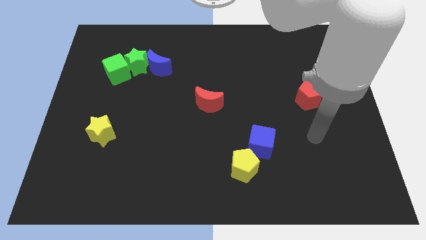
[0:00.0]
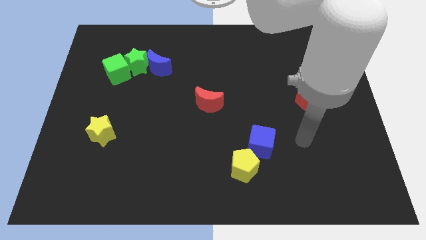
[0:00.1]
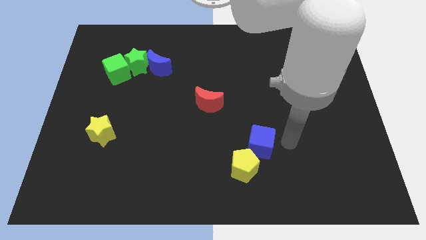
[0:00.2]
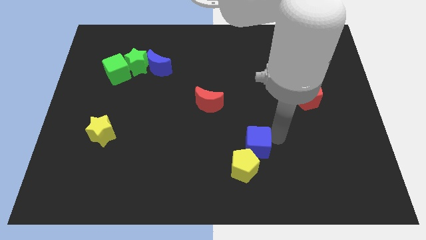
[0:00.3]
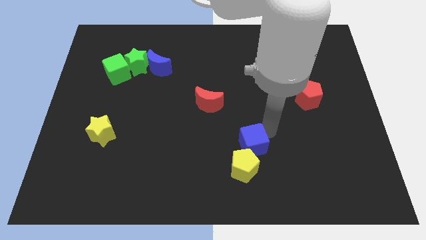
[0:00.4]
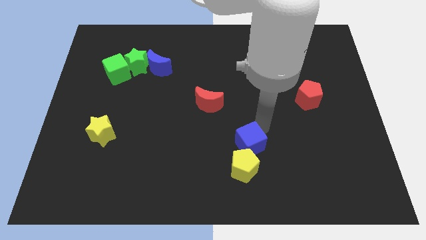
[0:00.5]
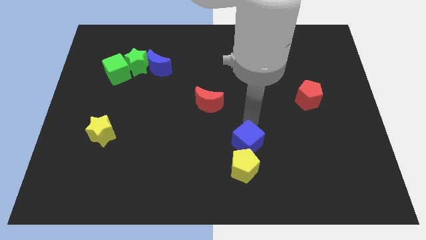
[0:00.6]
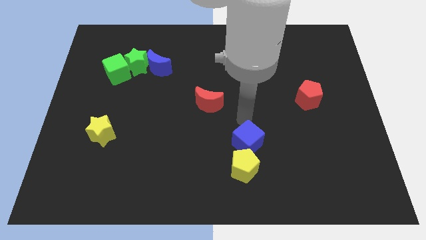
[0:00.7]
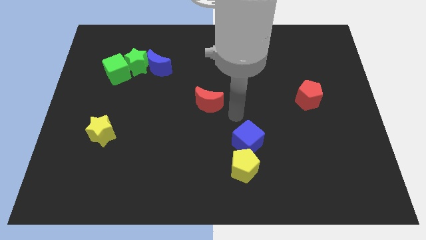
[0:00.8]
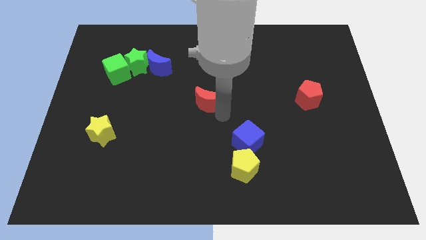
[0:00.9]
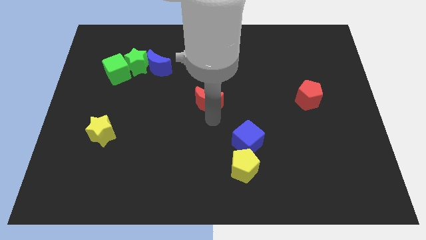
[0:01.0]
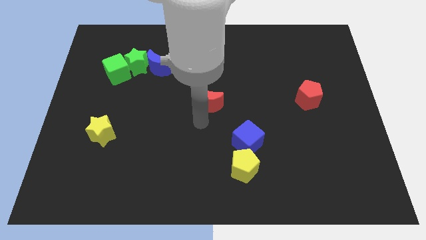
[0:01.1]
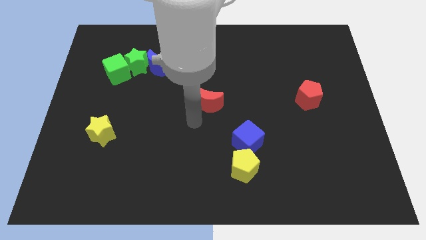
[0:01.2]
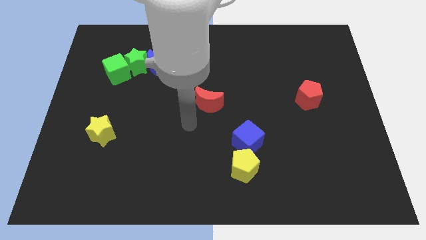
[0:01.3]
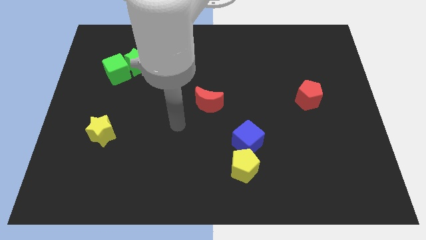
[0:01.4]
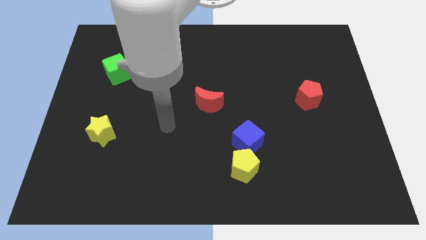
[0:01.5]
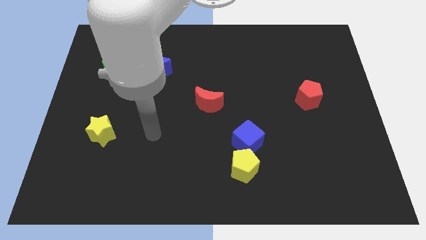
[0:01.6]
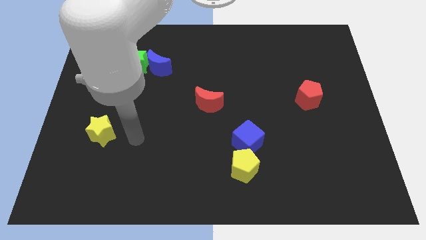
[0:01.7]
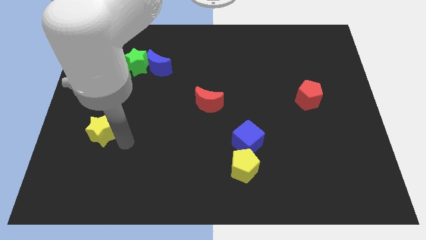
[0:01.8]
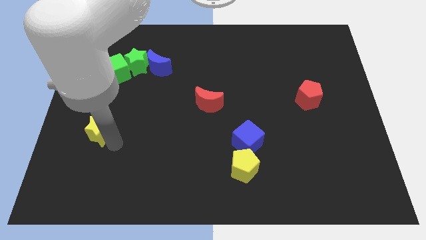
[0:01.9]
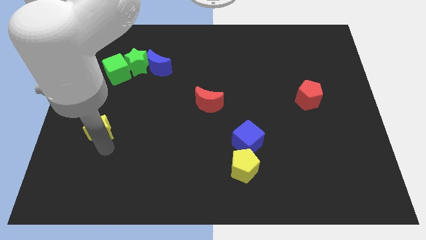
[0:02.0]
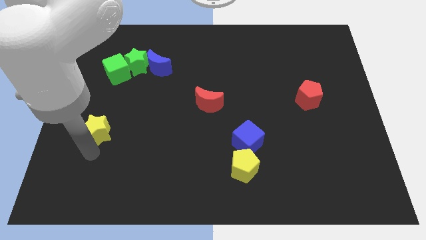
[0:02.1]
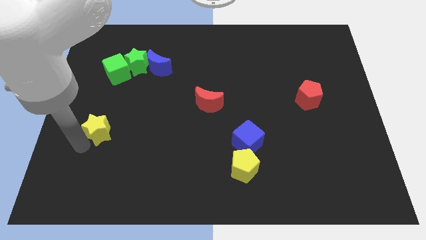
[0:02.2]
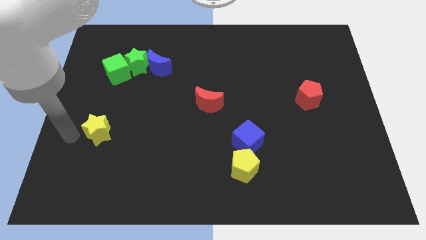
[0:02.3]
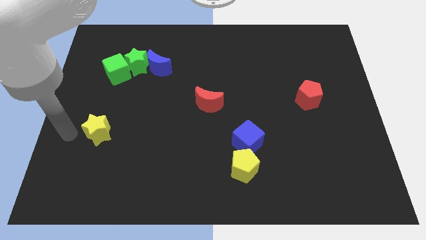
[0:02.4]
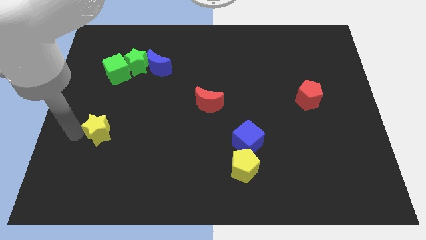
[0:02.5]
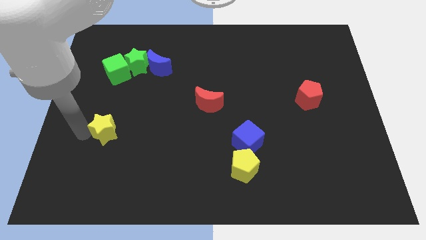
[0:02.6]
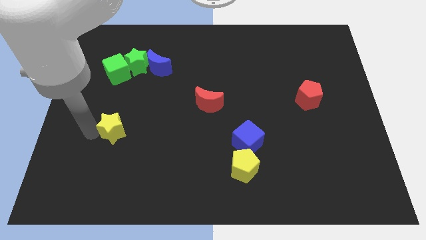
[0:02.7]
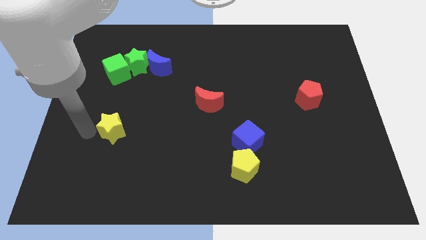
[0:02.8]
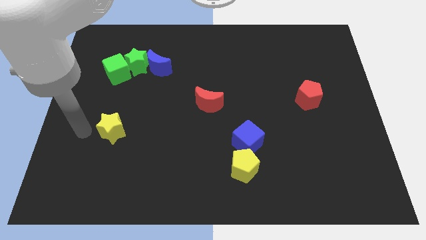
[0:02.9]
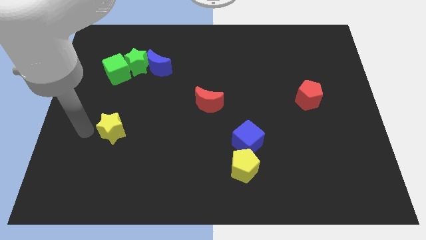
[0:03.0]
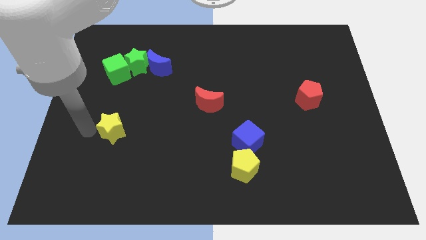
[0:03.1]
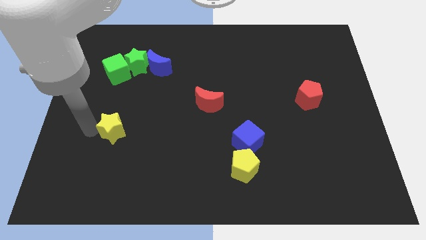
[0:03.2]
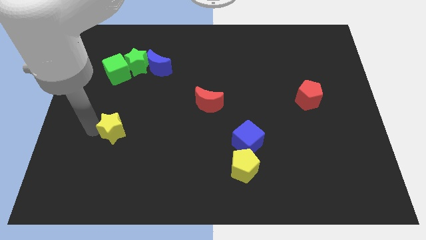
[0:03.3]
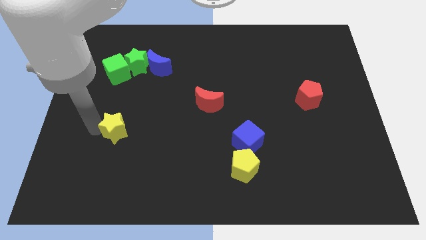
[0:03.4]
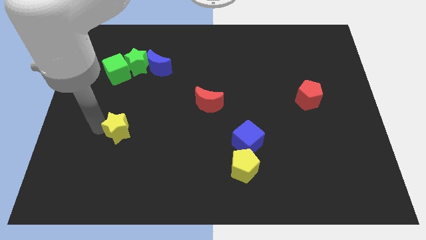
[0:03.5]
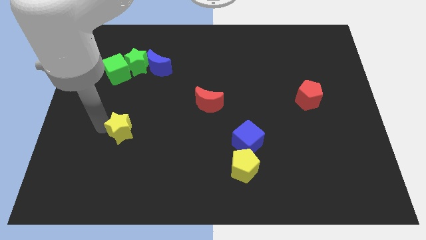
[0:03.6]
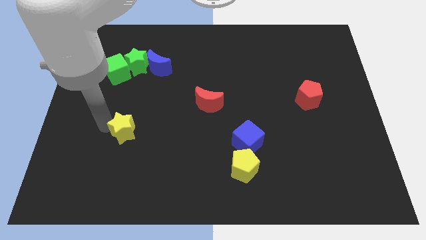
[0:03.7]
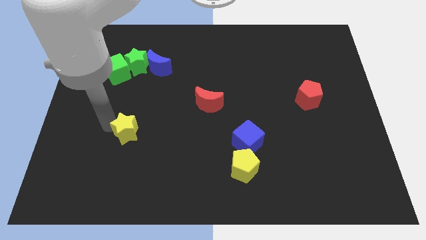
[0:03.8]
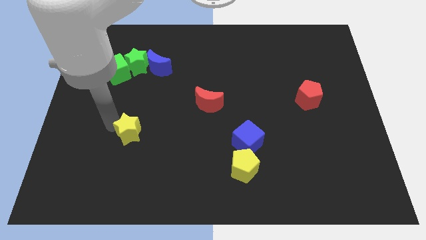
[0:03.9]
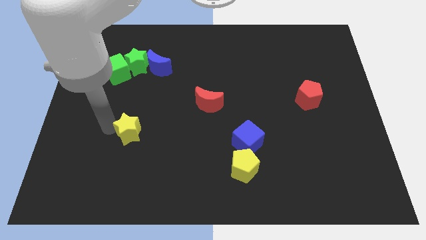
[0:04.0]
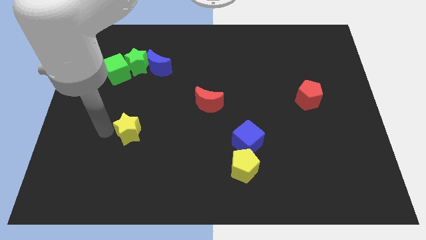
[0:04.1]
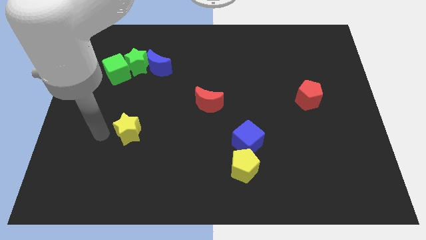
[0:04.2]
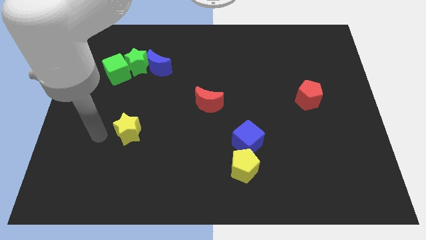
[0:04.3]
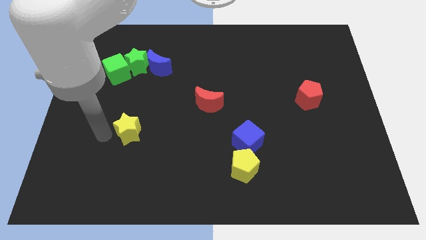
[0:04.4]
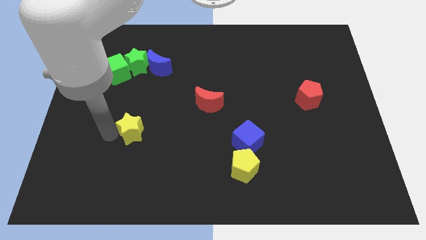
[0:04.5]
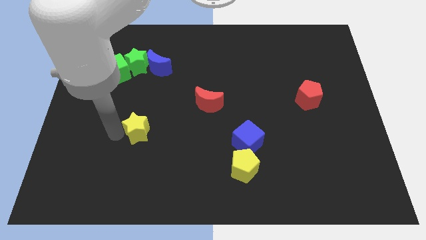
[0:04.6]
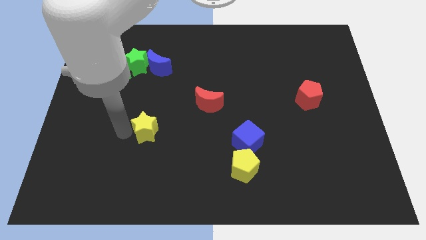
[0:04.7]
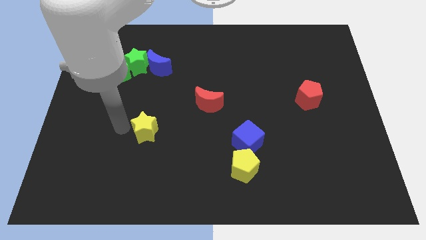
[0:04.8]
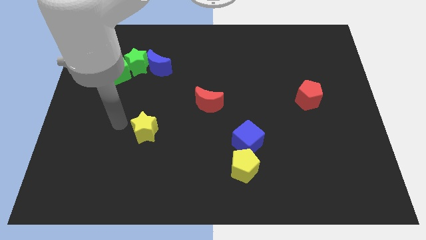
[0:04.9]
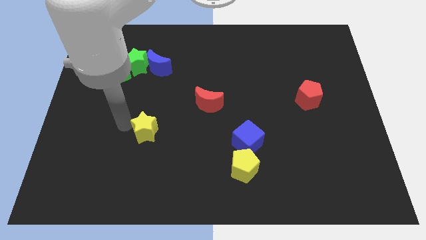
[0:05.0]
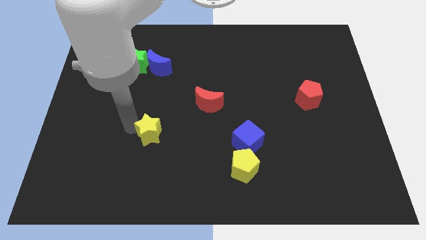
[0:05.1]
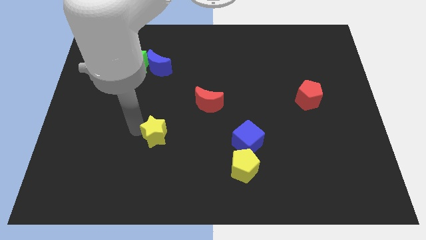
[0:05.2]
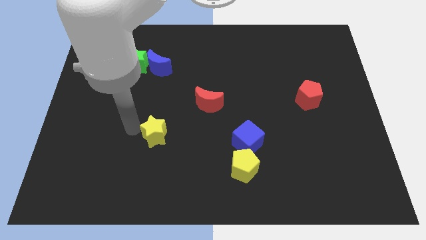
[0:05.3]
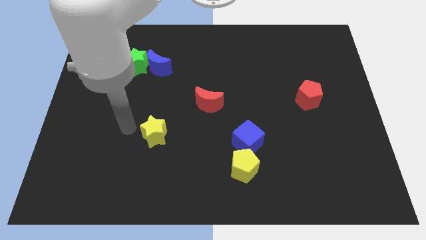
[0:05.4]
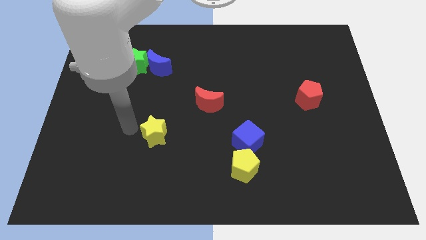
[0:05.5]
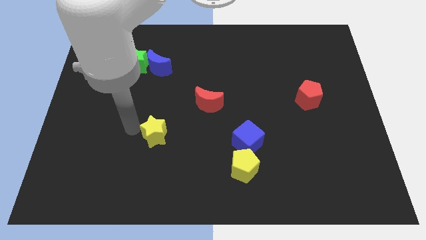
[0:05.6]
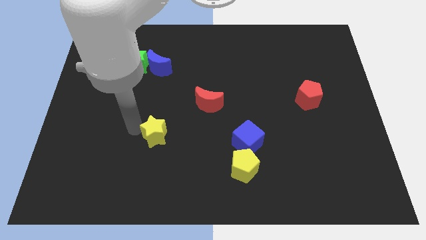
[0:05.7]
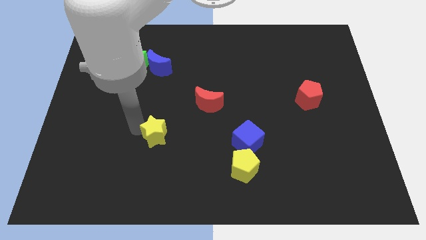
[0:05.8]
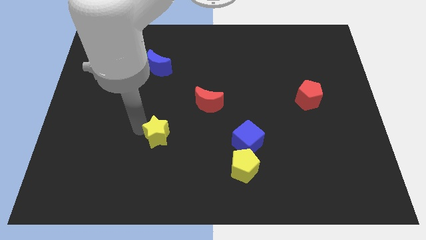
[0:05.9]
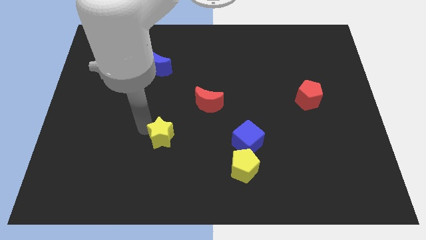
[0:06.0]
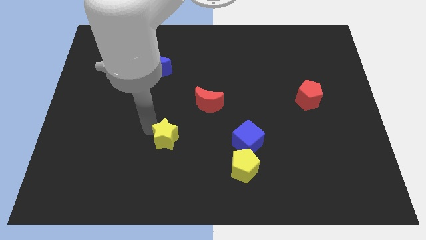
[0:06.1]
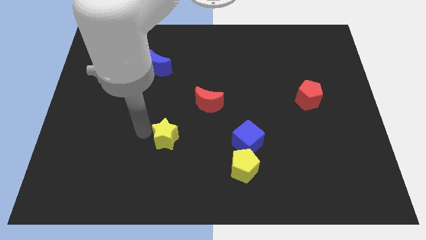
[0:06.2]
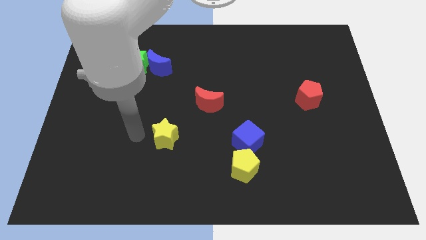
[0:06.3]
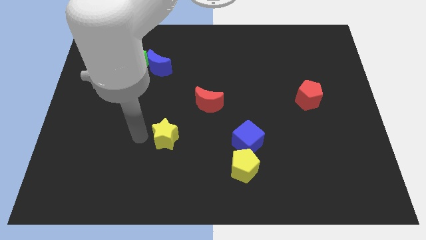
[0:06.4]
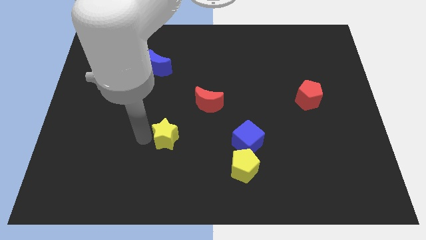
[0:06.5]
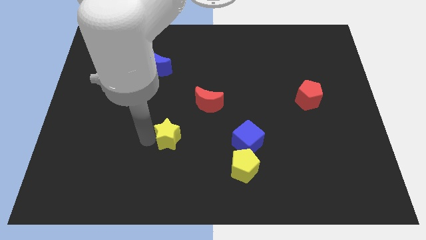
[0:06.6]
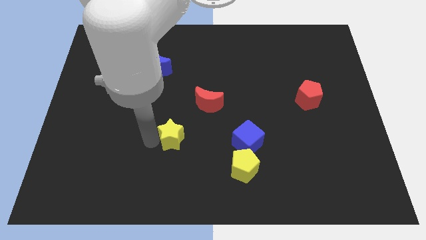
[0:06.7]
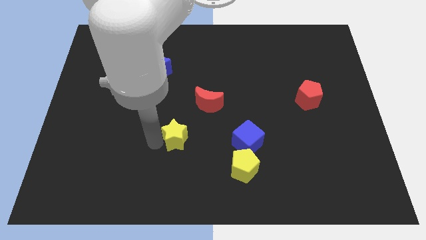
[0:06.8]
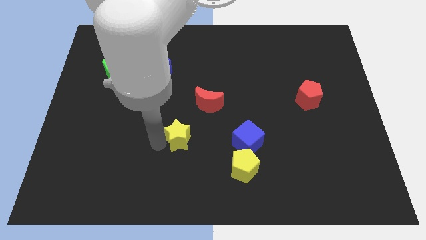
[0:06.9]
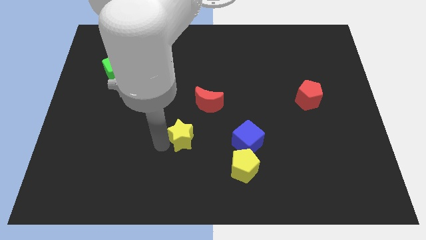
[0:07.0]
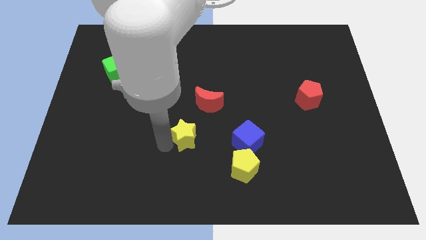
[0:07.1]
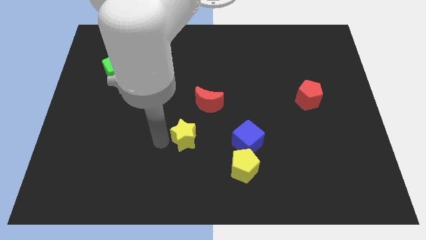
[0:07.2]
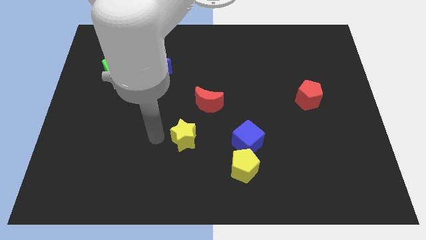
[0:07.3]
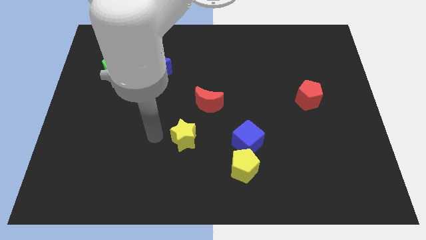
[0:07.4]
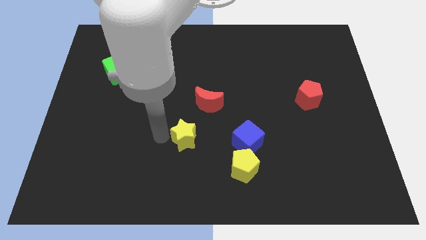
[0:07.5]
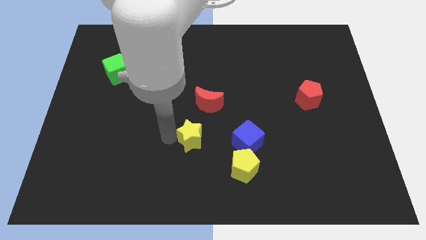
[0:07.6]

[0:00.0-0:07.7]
put the yellow star below the red moon
